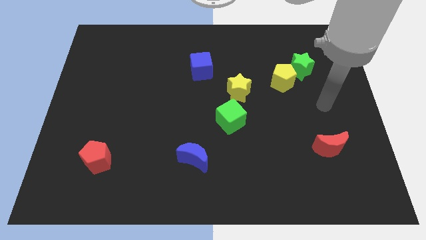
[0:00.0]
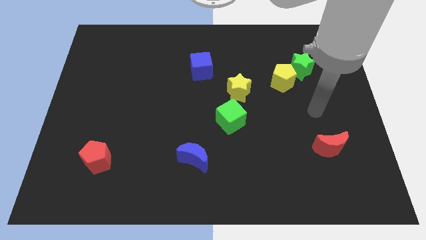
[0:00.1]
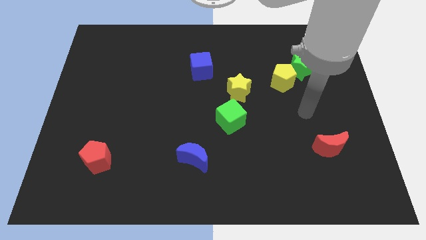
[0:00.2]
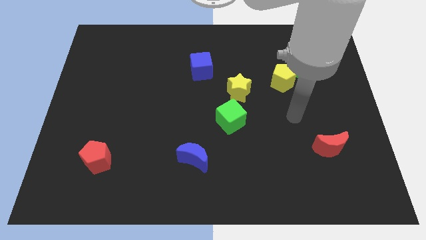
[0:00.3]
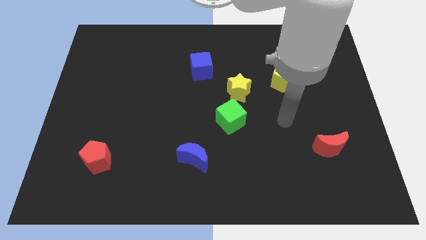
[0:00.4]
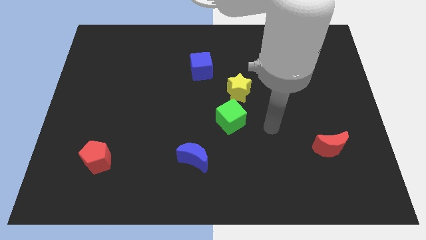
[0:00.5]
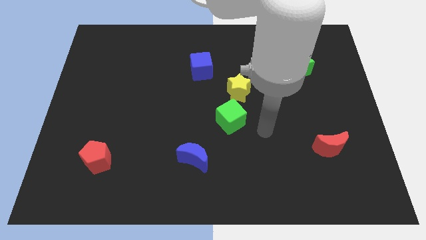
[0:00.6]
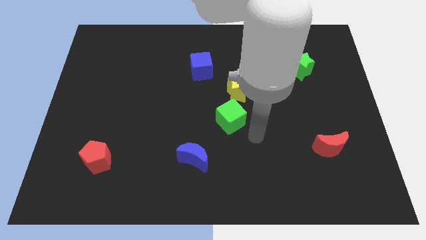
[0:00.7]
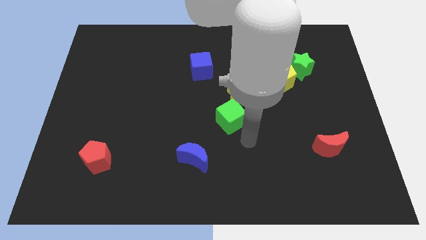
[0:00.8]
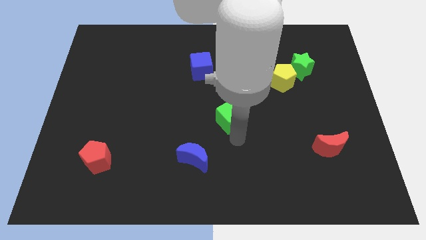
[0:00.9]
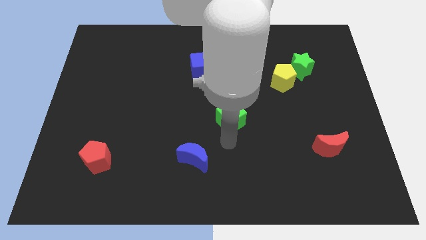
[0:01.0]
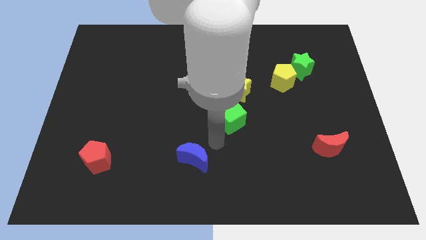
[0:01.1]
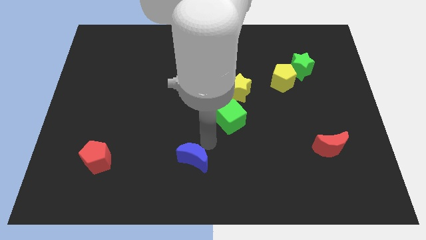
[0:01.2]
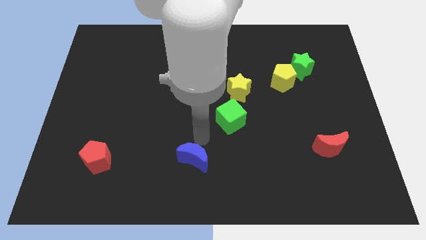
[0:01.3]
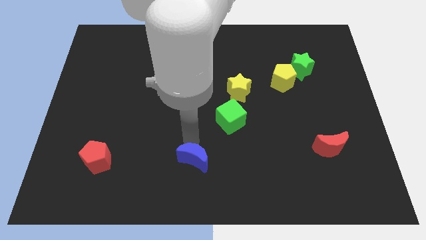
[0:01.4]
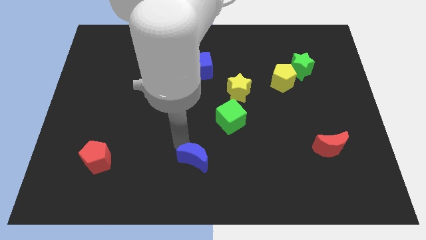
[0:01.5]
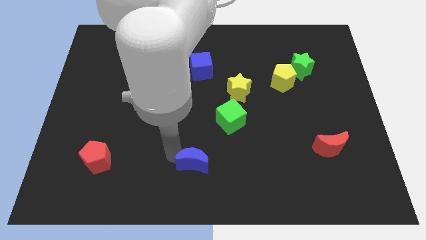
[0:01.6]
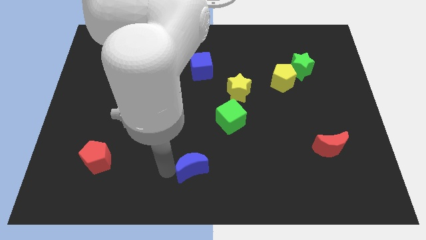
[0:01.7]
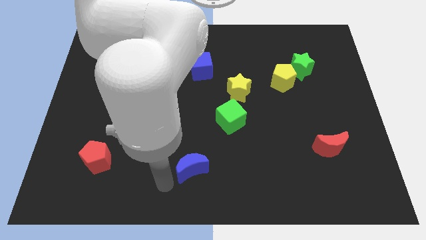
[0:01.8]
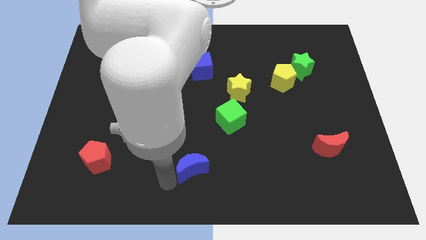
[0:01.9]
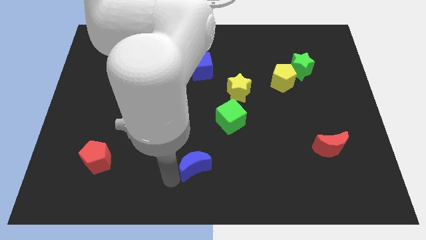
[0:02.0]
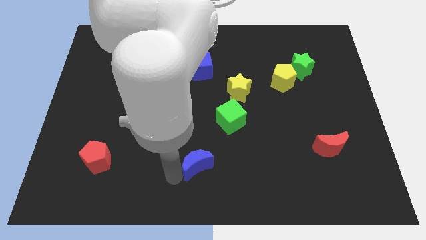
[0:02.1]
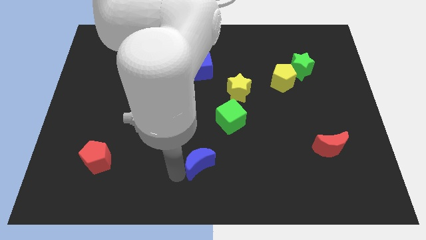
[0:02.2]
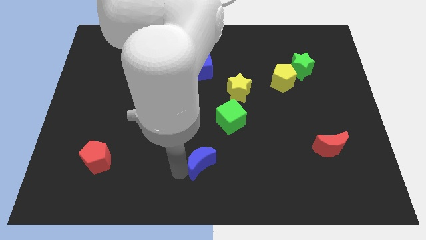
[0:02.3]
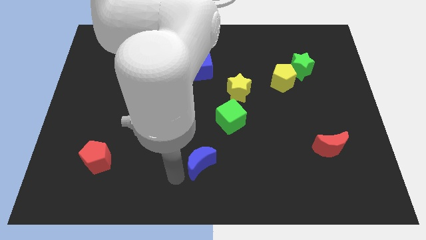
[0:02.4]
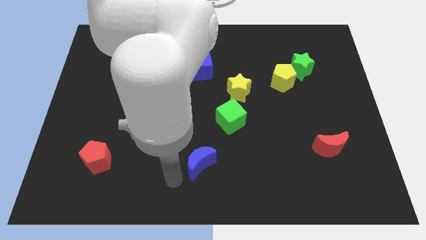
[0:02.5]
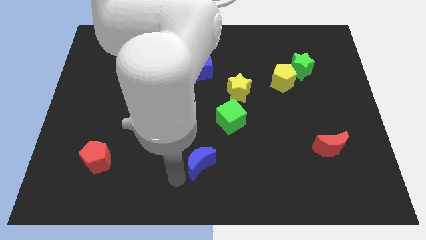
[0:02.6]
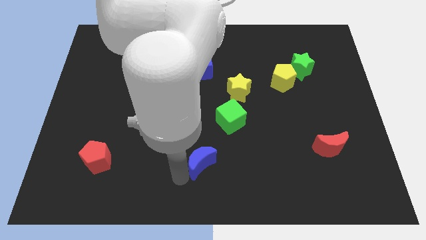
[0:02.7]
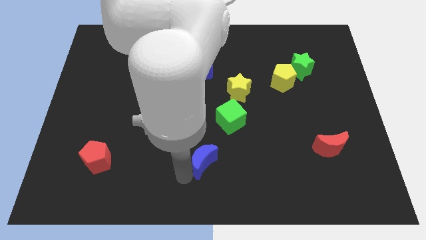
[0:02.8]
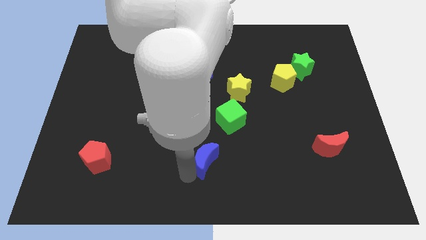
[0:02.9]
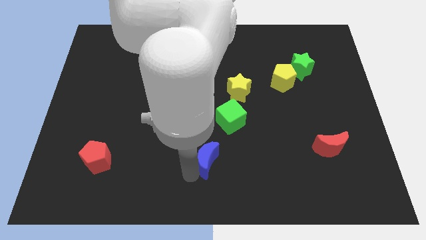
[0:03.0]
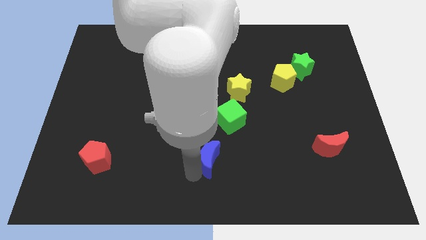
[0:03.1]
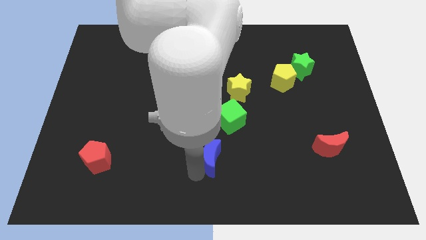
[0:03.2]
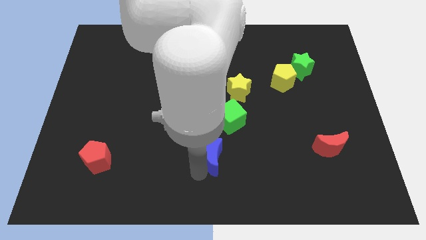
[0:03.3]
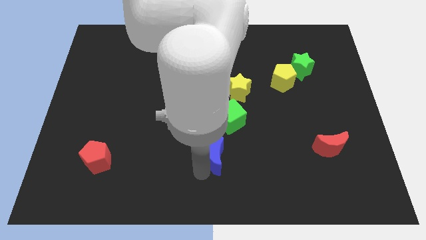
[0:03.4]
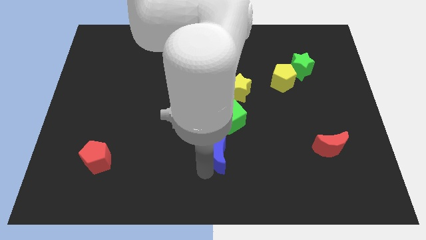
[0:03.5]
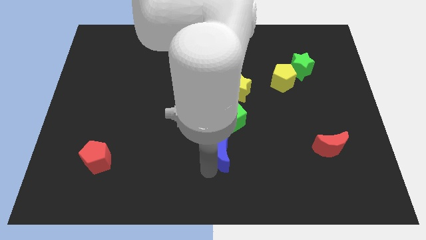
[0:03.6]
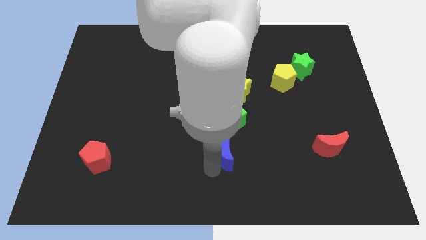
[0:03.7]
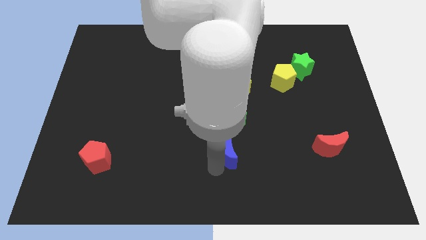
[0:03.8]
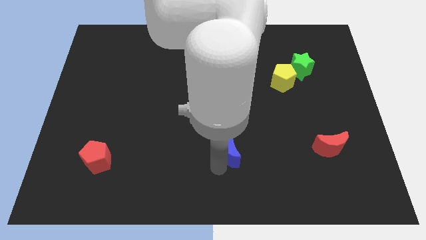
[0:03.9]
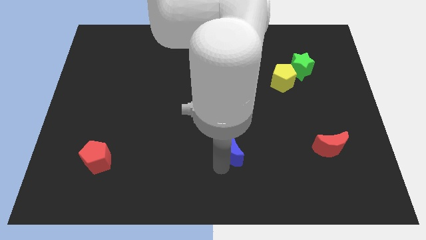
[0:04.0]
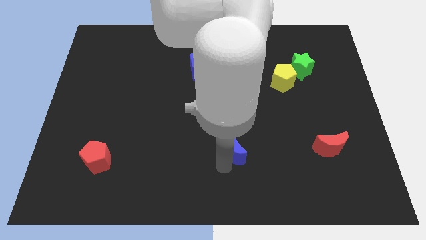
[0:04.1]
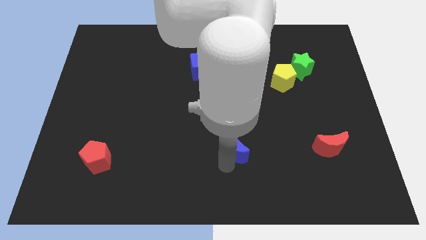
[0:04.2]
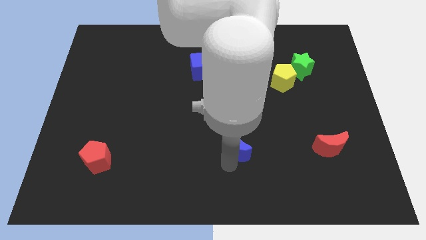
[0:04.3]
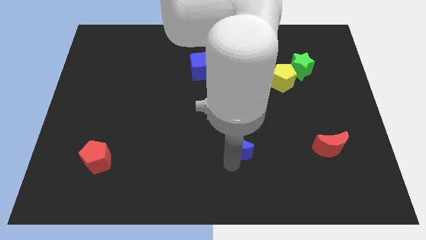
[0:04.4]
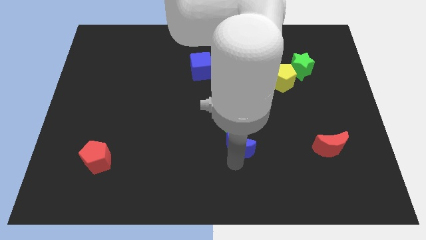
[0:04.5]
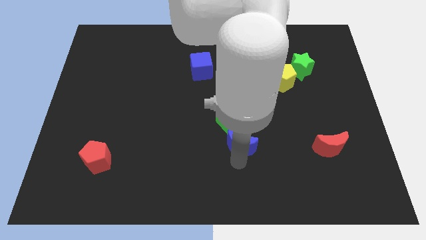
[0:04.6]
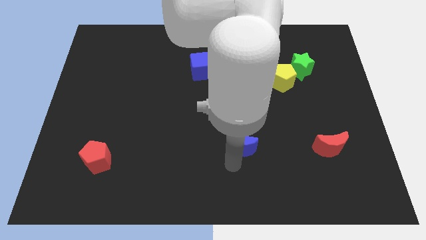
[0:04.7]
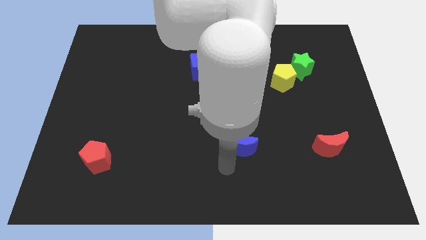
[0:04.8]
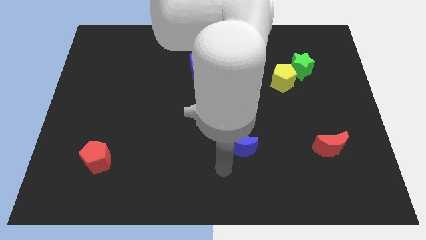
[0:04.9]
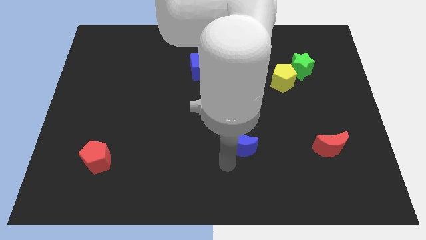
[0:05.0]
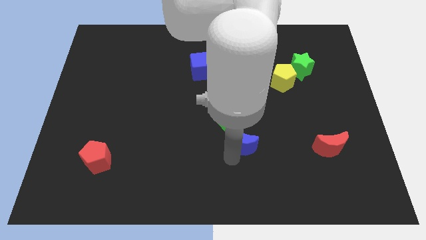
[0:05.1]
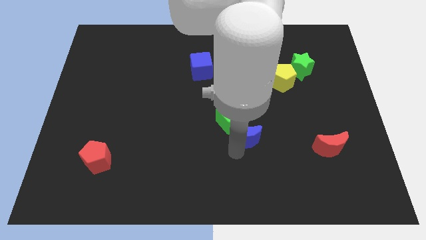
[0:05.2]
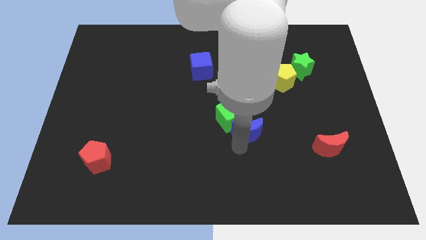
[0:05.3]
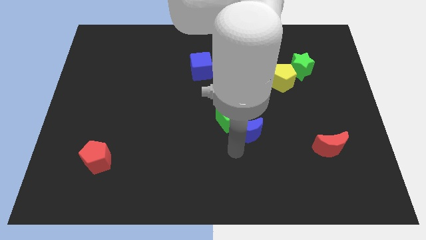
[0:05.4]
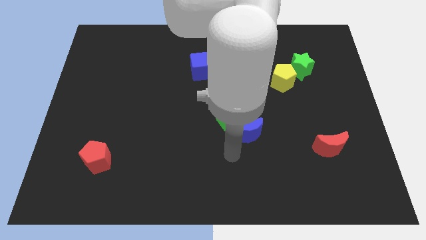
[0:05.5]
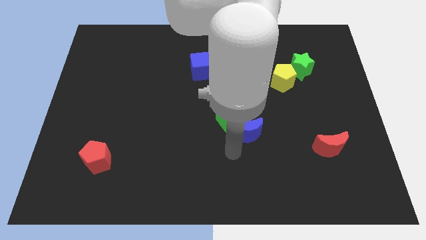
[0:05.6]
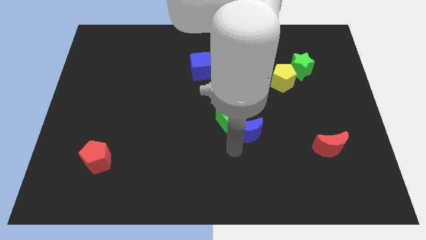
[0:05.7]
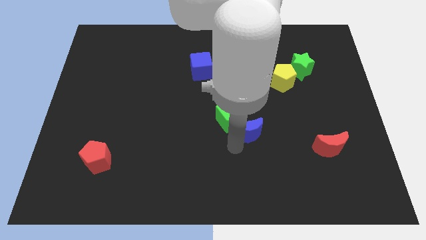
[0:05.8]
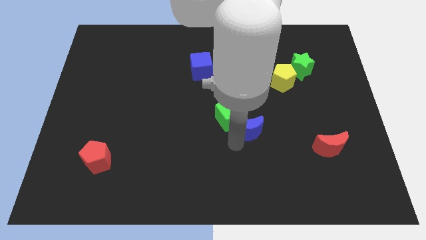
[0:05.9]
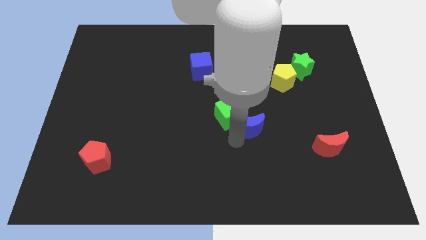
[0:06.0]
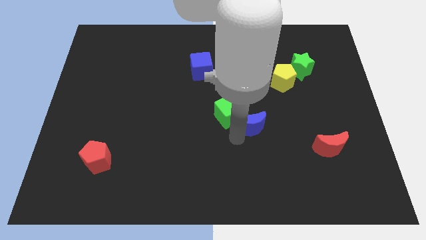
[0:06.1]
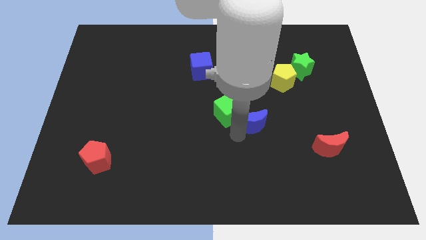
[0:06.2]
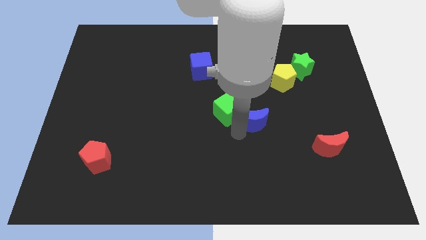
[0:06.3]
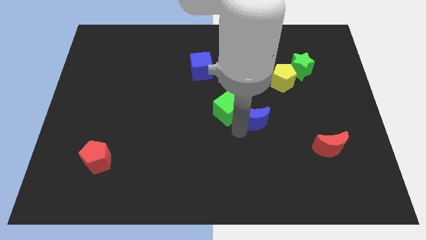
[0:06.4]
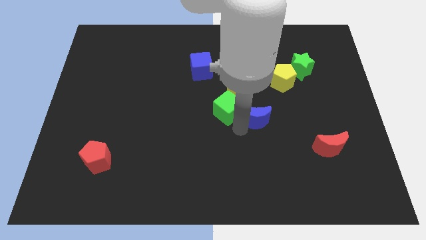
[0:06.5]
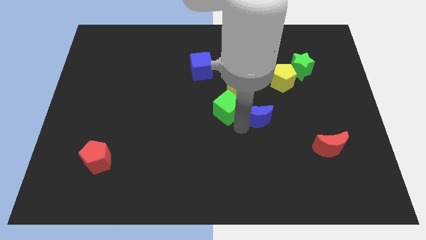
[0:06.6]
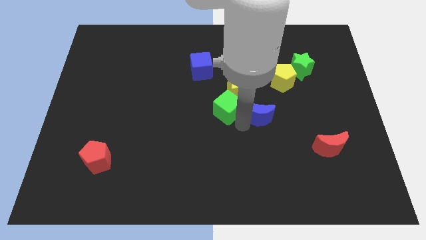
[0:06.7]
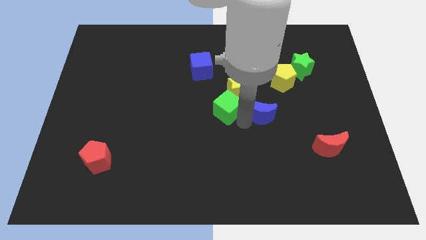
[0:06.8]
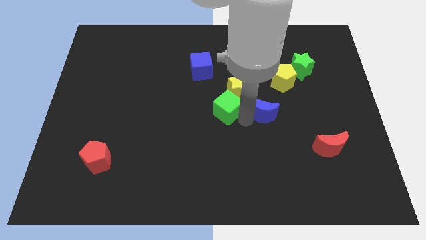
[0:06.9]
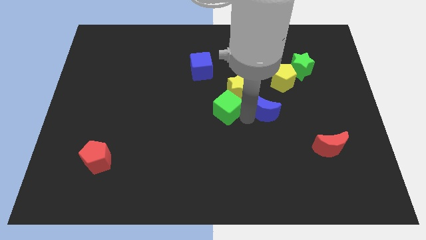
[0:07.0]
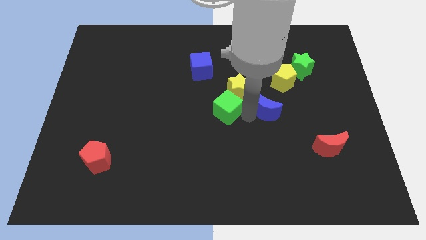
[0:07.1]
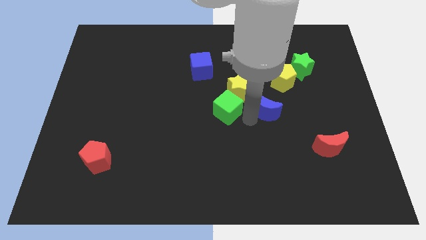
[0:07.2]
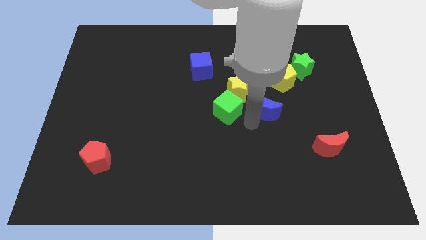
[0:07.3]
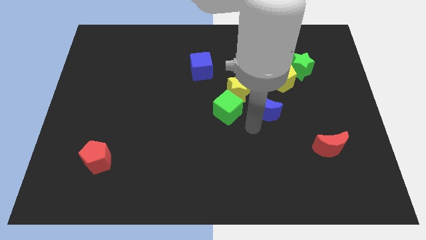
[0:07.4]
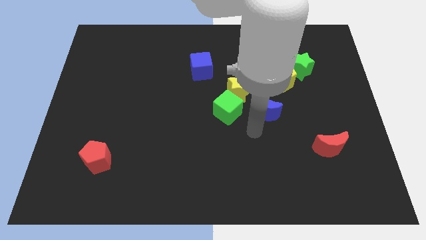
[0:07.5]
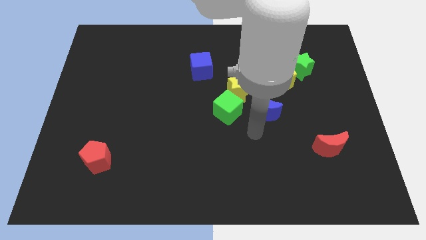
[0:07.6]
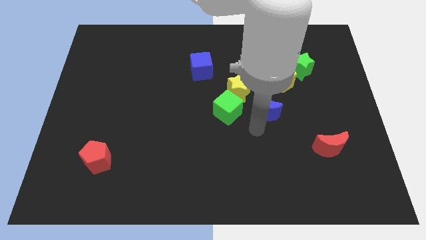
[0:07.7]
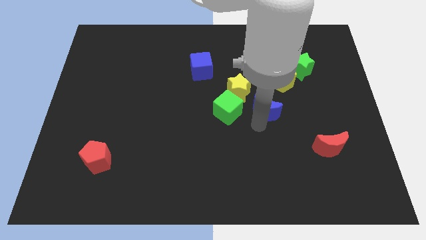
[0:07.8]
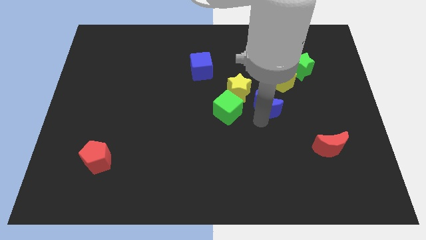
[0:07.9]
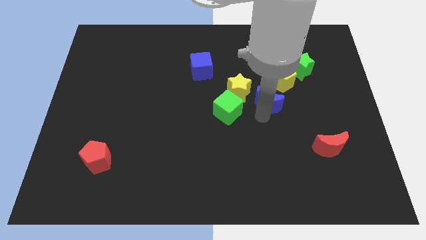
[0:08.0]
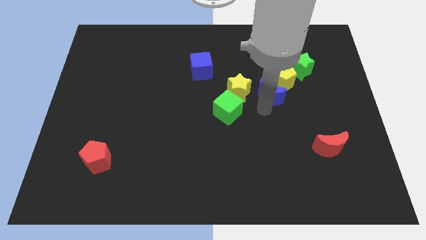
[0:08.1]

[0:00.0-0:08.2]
slide the blue moon close to the yellow pentagon

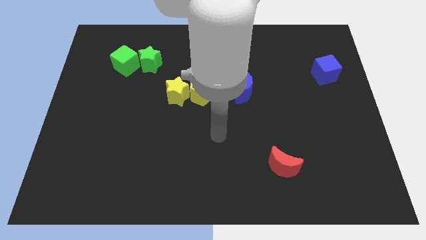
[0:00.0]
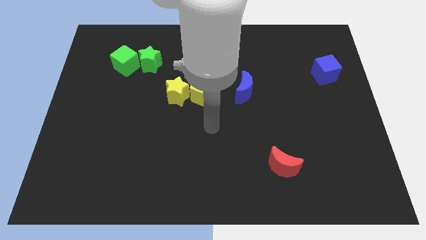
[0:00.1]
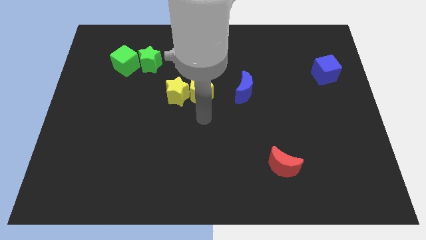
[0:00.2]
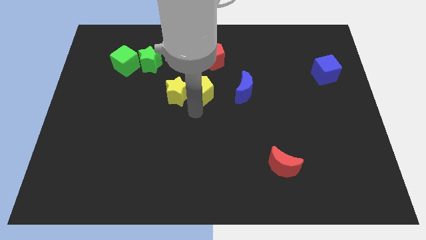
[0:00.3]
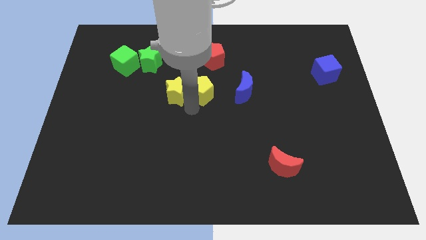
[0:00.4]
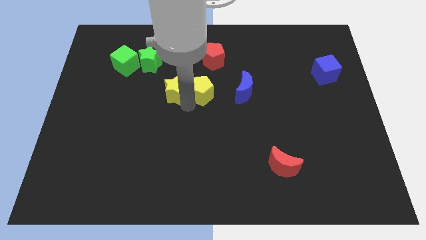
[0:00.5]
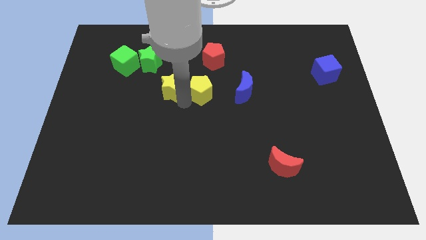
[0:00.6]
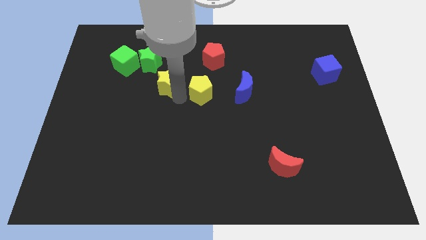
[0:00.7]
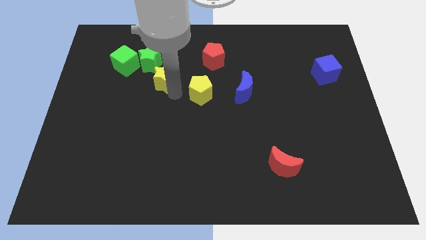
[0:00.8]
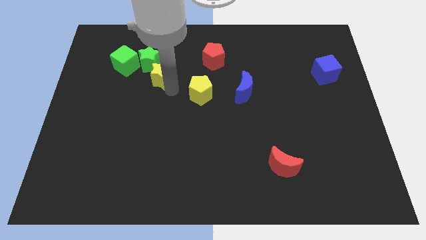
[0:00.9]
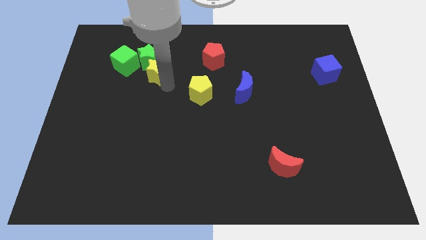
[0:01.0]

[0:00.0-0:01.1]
move the yellow star to the green star
